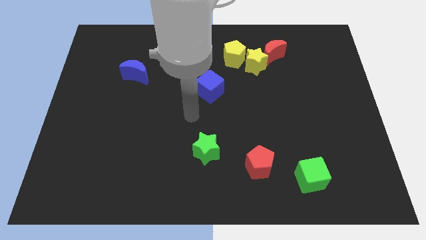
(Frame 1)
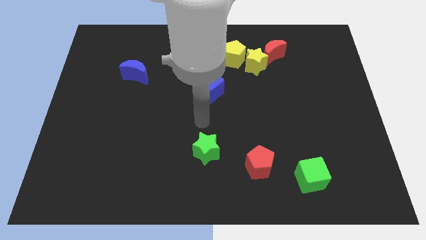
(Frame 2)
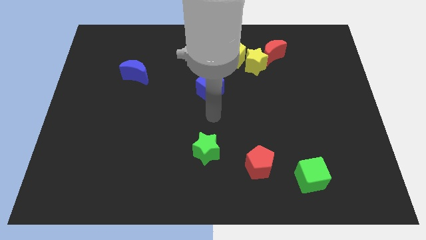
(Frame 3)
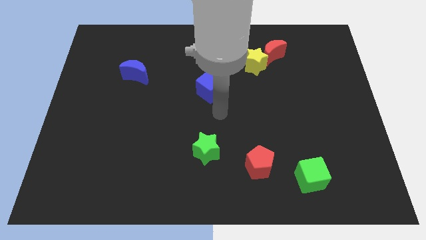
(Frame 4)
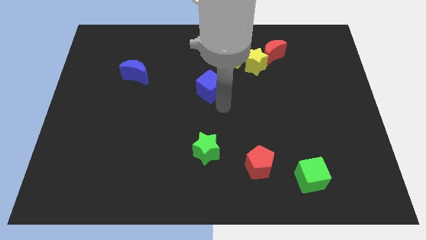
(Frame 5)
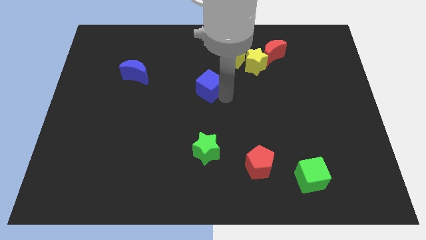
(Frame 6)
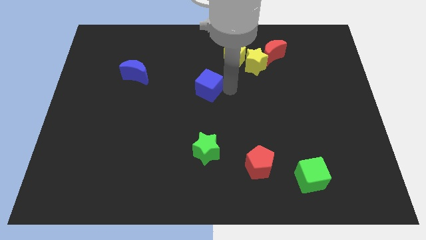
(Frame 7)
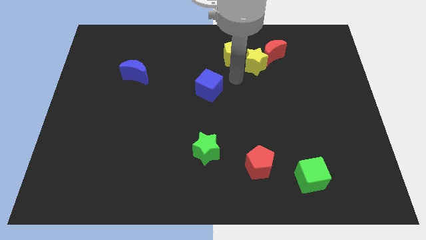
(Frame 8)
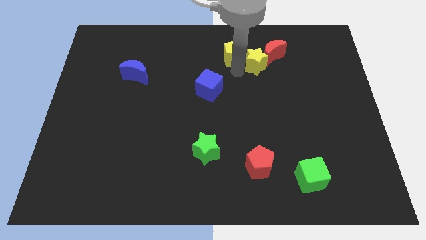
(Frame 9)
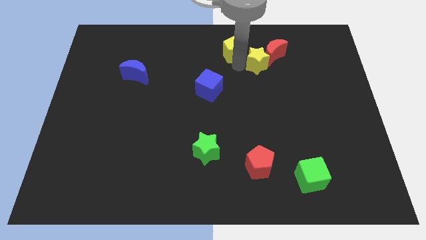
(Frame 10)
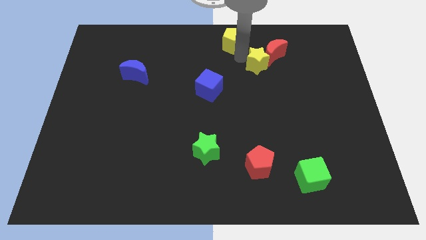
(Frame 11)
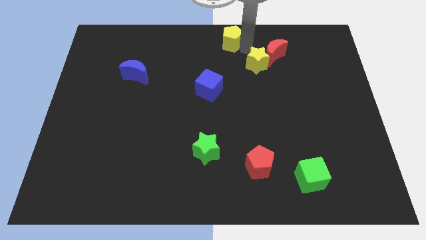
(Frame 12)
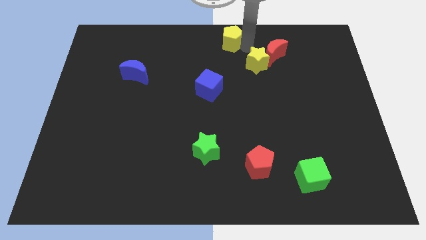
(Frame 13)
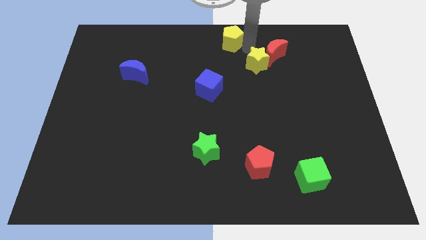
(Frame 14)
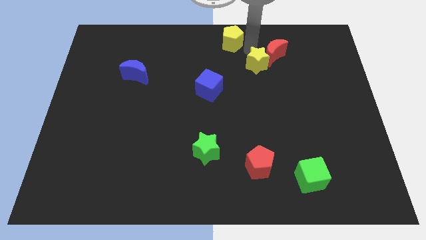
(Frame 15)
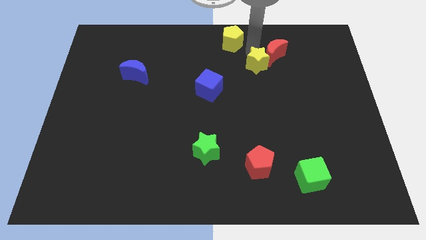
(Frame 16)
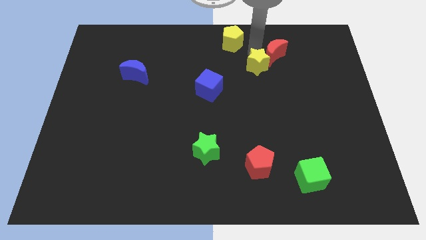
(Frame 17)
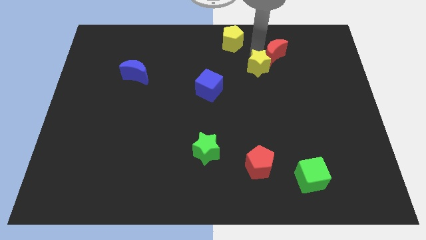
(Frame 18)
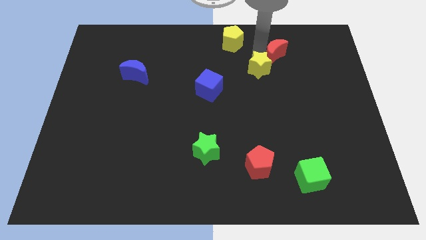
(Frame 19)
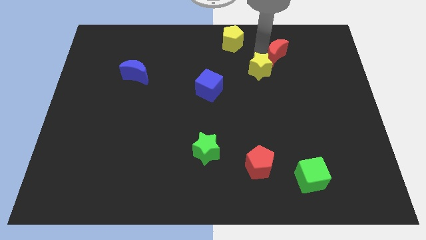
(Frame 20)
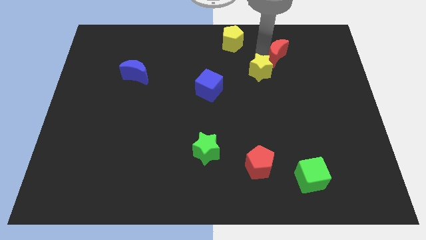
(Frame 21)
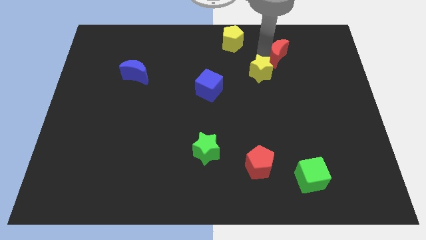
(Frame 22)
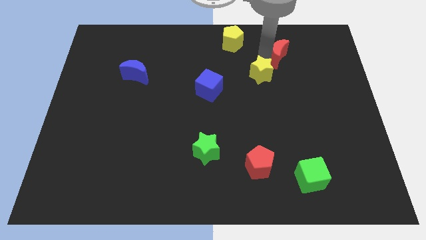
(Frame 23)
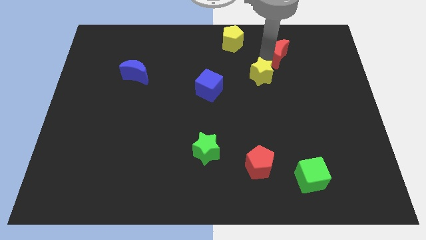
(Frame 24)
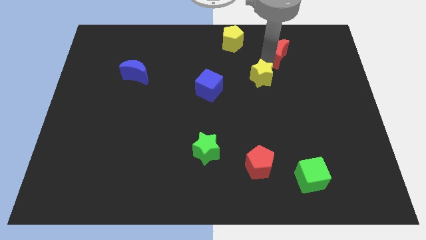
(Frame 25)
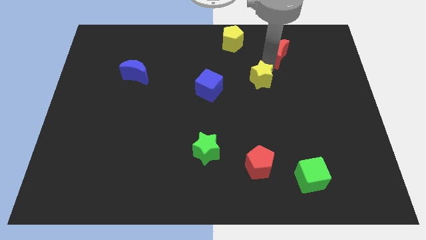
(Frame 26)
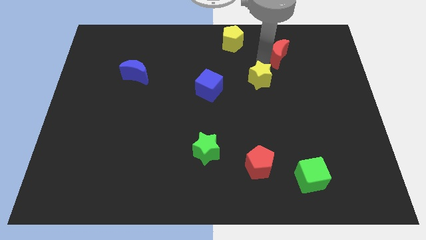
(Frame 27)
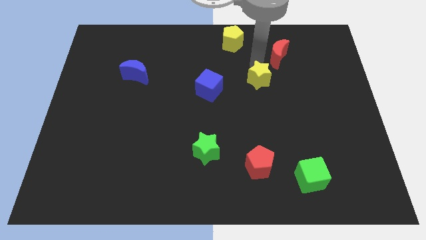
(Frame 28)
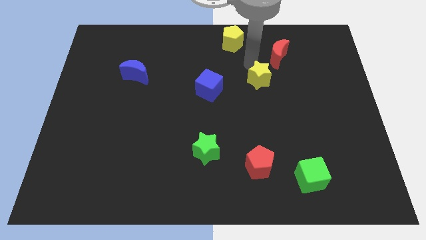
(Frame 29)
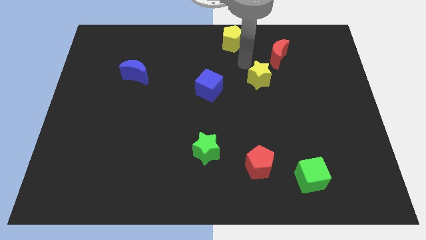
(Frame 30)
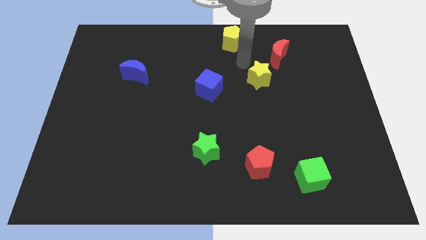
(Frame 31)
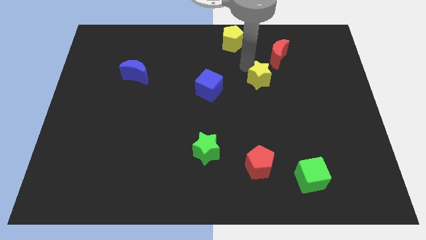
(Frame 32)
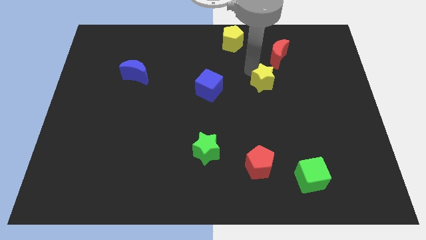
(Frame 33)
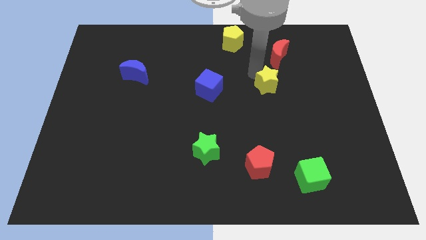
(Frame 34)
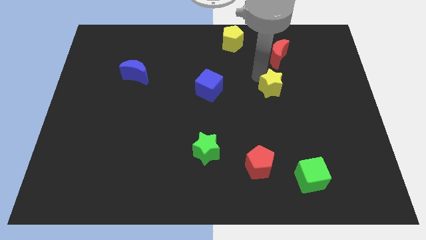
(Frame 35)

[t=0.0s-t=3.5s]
push the yellow star a little down

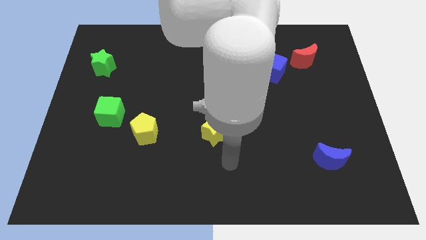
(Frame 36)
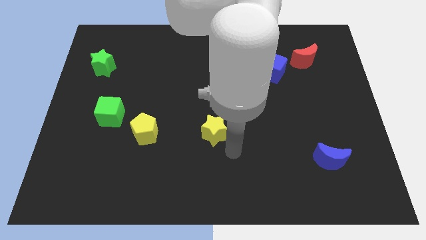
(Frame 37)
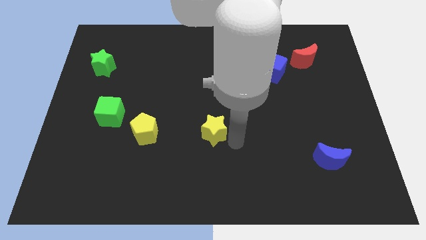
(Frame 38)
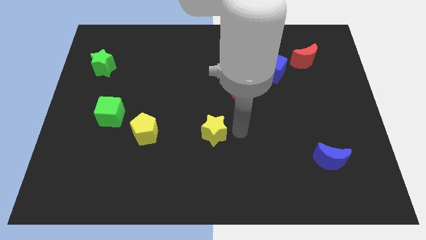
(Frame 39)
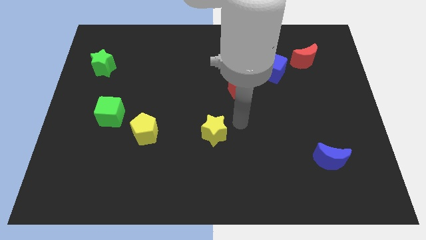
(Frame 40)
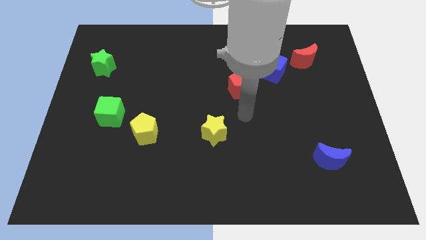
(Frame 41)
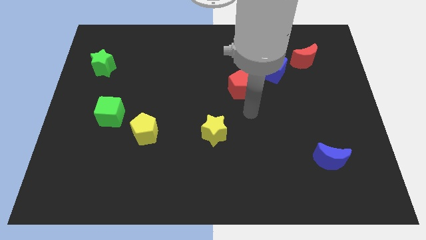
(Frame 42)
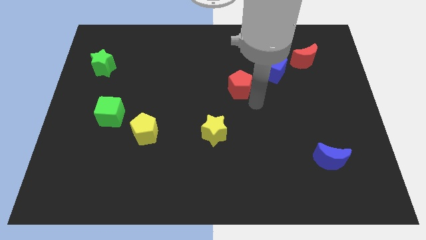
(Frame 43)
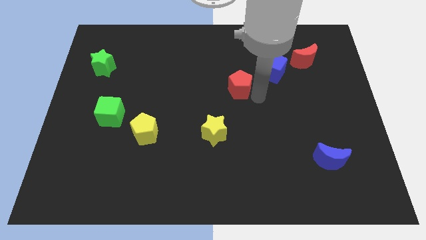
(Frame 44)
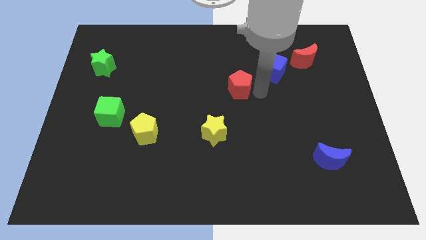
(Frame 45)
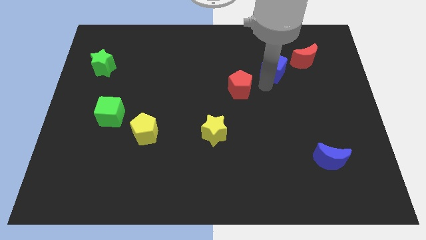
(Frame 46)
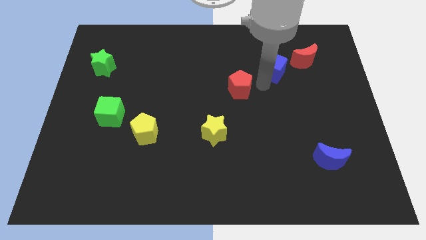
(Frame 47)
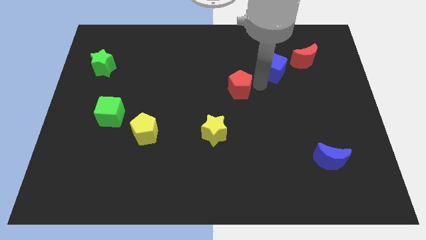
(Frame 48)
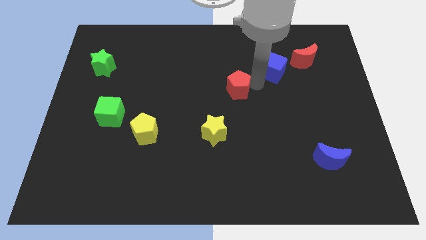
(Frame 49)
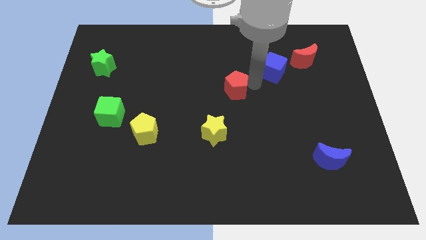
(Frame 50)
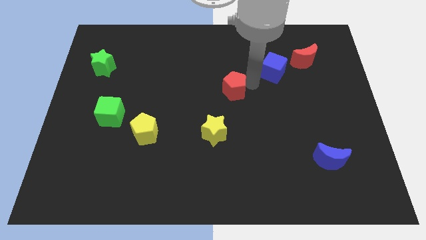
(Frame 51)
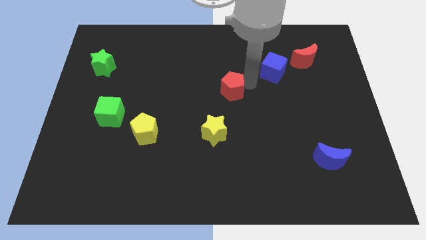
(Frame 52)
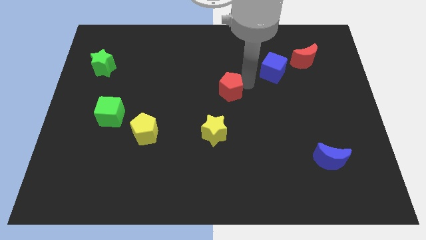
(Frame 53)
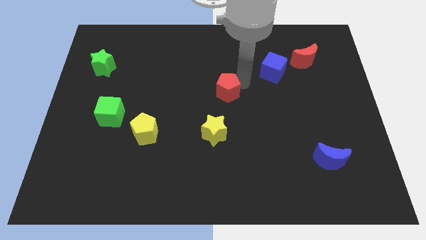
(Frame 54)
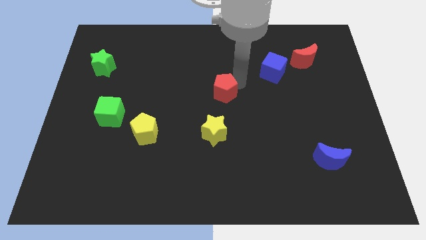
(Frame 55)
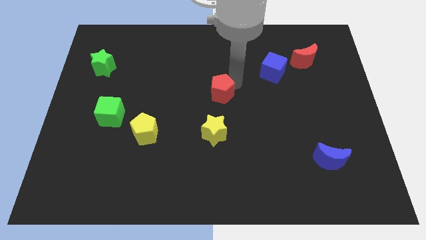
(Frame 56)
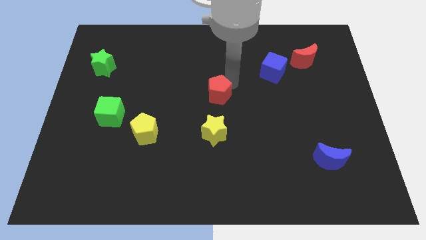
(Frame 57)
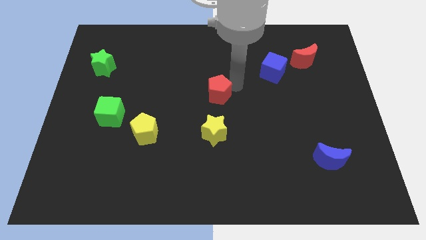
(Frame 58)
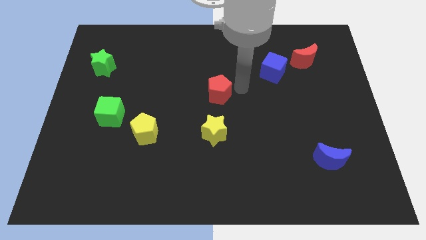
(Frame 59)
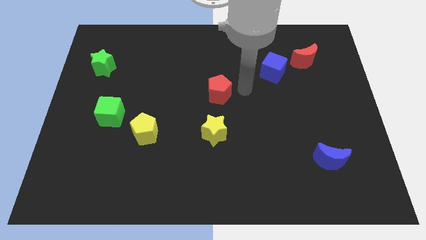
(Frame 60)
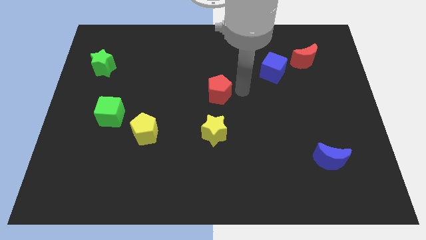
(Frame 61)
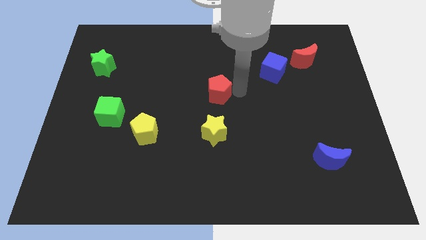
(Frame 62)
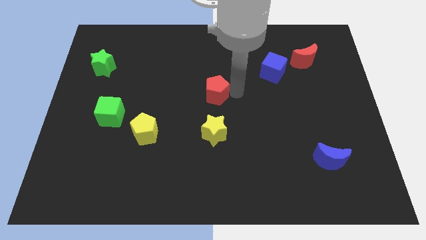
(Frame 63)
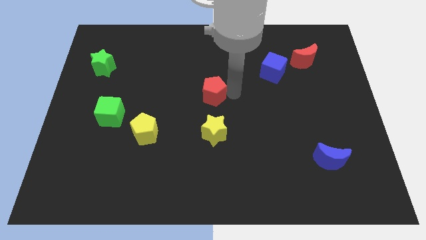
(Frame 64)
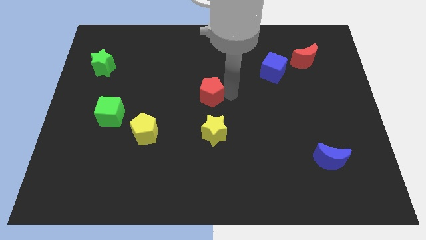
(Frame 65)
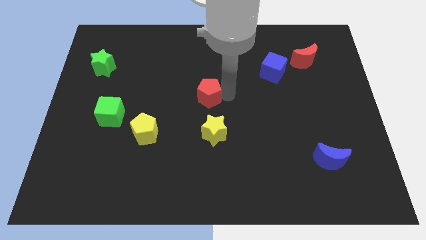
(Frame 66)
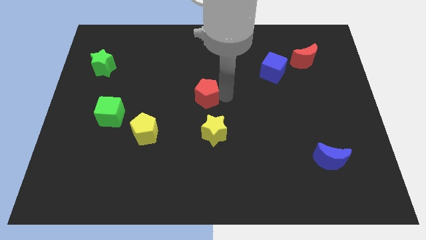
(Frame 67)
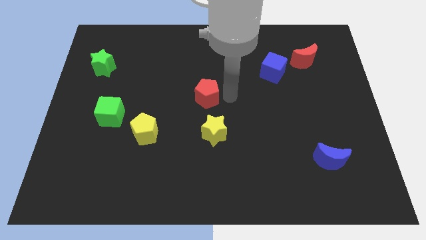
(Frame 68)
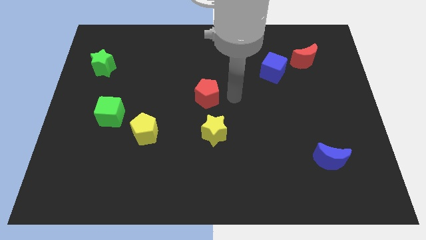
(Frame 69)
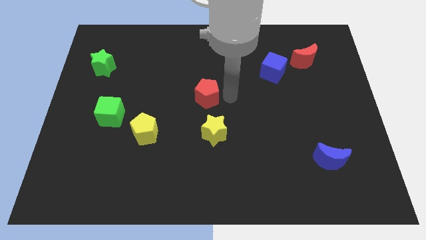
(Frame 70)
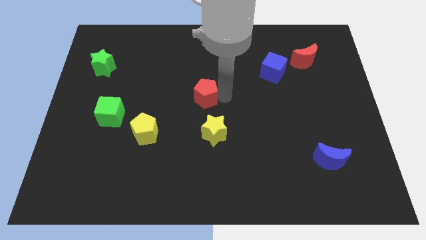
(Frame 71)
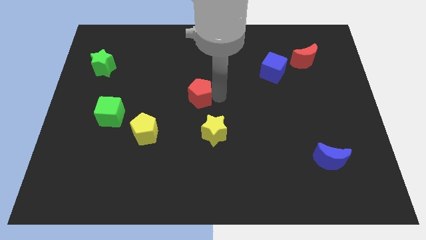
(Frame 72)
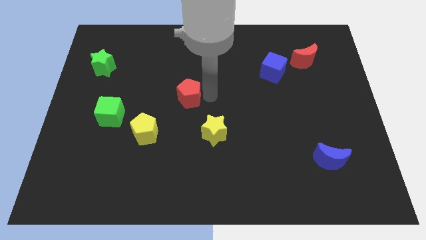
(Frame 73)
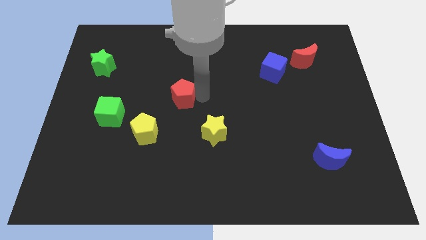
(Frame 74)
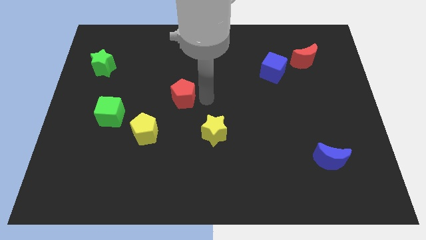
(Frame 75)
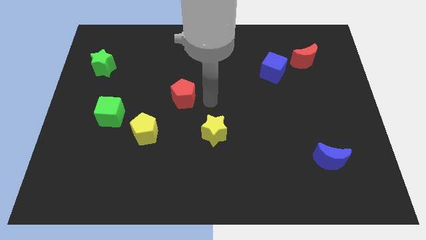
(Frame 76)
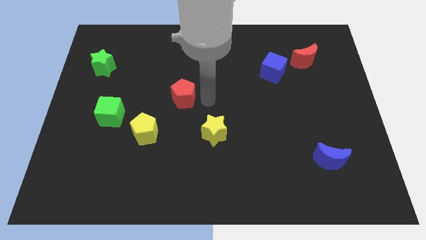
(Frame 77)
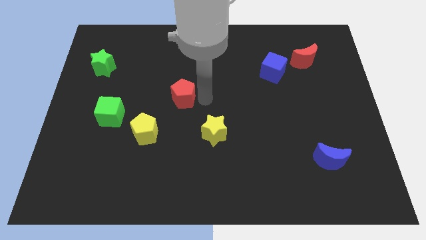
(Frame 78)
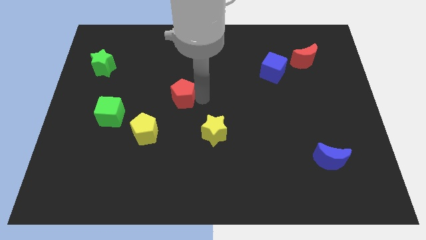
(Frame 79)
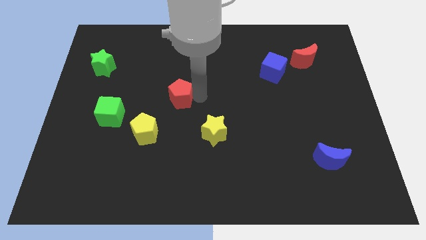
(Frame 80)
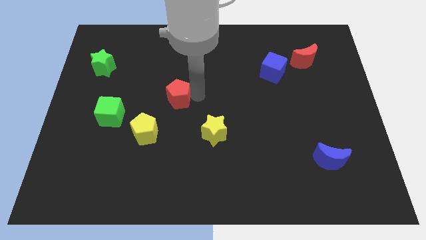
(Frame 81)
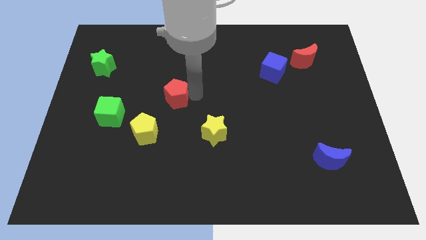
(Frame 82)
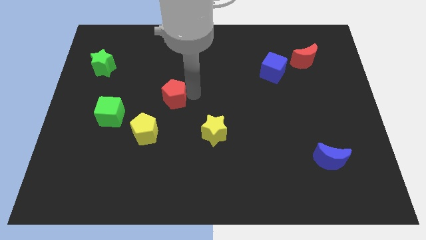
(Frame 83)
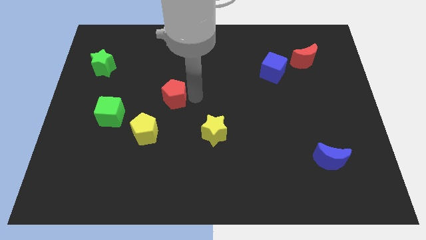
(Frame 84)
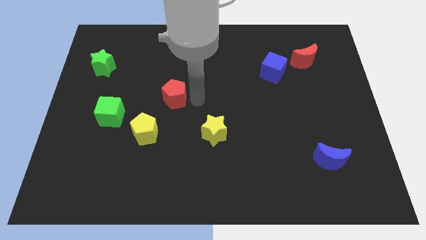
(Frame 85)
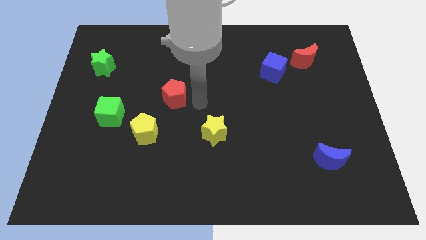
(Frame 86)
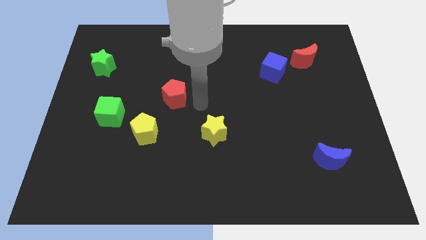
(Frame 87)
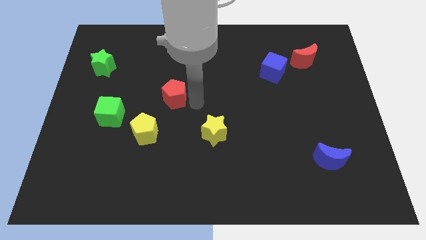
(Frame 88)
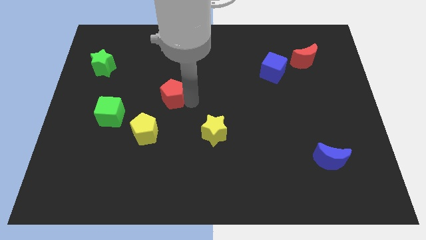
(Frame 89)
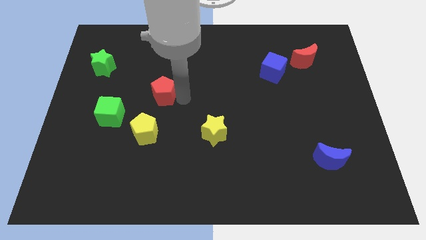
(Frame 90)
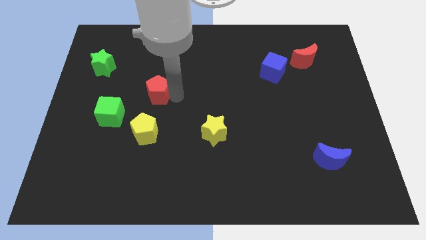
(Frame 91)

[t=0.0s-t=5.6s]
push the red pentagon to the left
